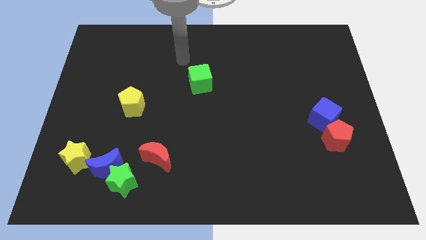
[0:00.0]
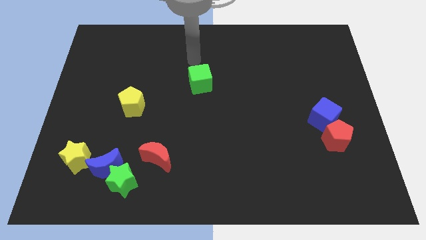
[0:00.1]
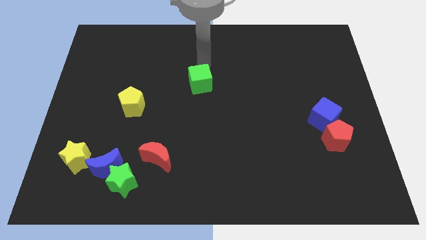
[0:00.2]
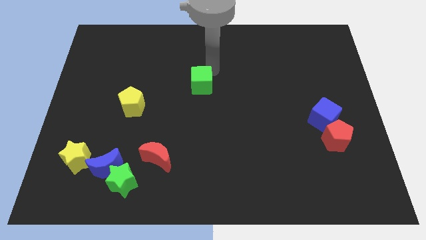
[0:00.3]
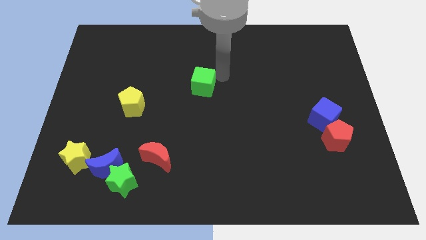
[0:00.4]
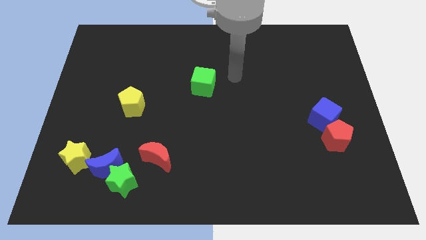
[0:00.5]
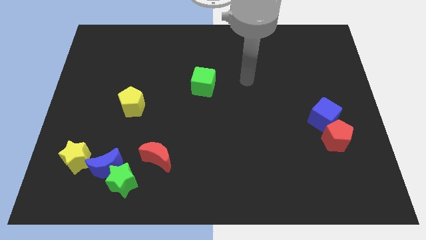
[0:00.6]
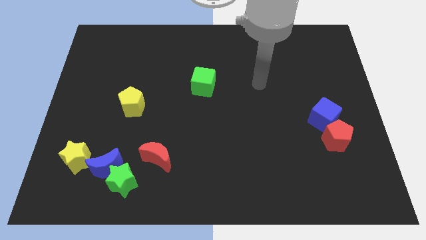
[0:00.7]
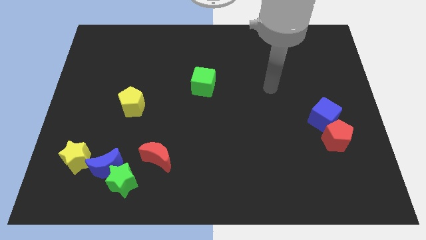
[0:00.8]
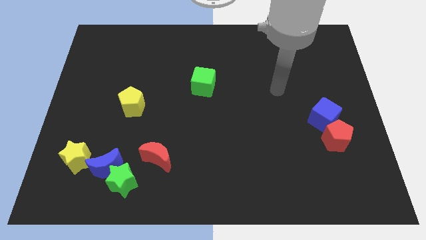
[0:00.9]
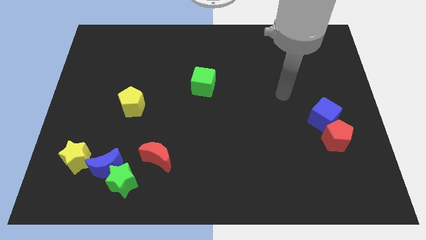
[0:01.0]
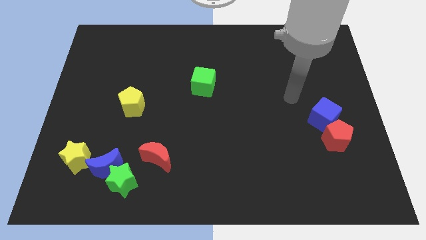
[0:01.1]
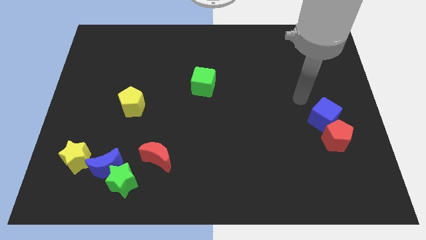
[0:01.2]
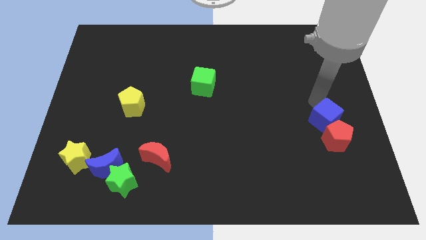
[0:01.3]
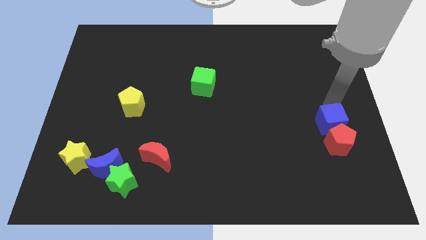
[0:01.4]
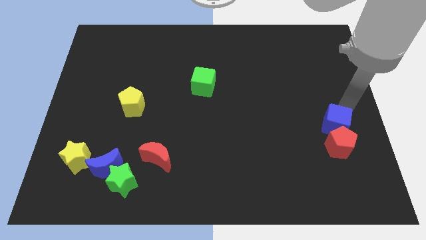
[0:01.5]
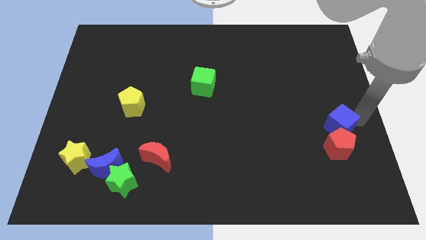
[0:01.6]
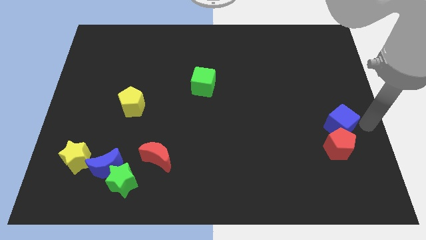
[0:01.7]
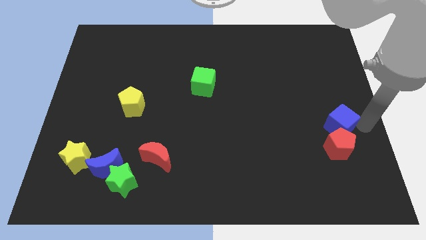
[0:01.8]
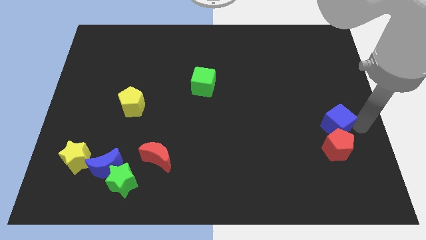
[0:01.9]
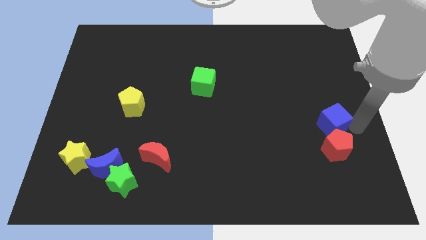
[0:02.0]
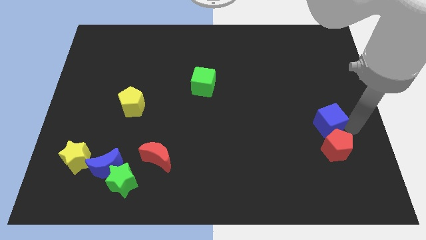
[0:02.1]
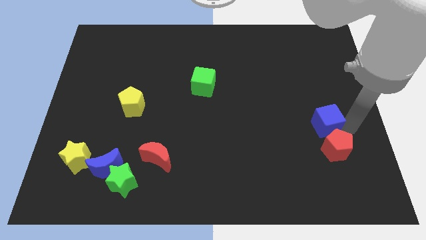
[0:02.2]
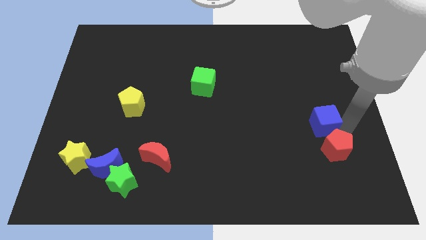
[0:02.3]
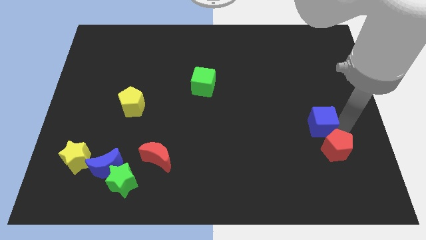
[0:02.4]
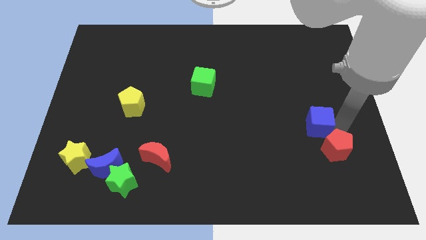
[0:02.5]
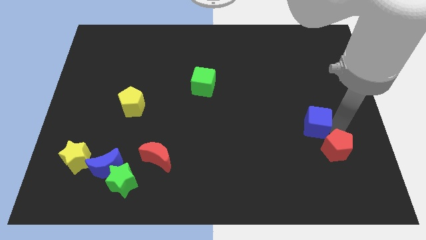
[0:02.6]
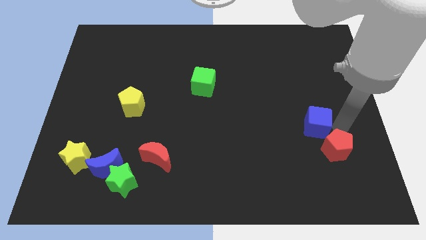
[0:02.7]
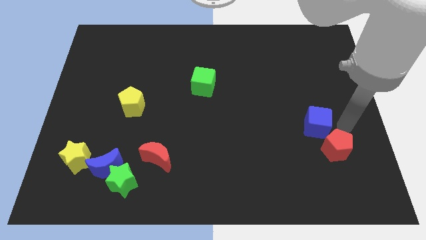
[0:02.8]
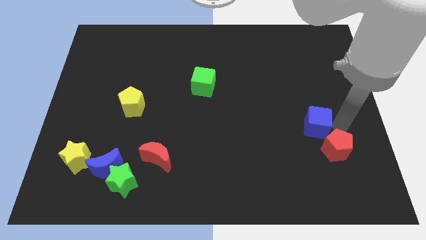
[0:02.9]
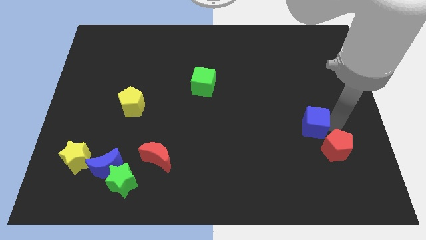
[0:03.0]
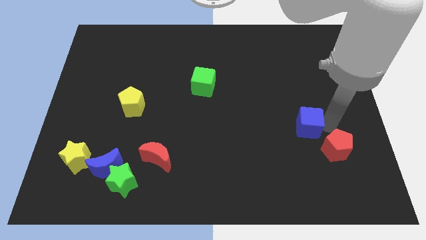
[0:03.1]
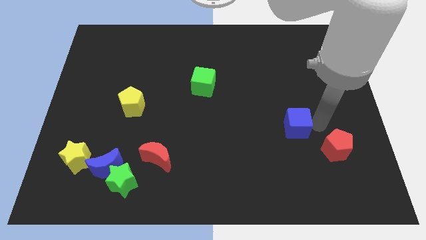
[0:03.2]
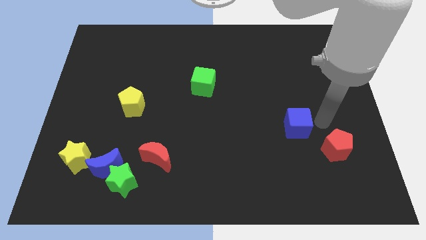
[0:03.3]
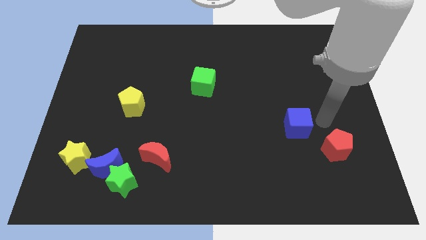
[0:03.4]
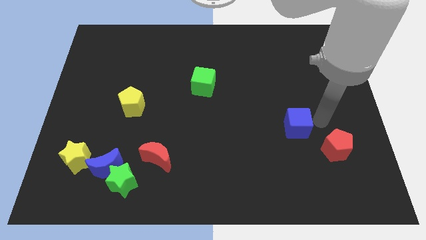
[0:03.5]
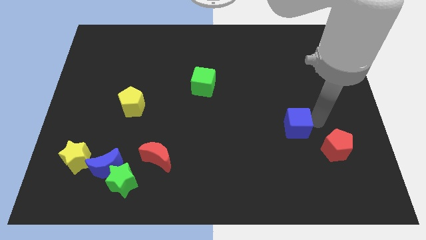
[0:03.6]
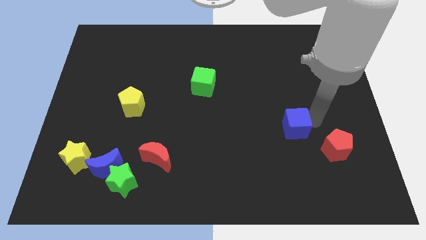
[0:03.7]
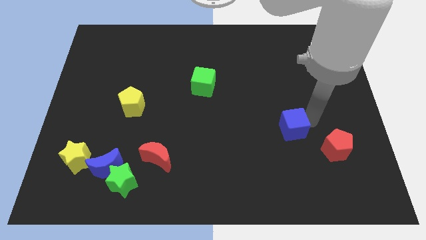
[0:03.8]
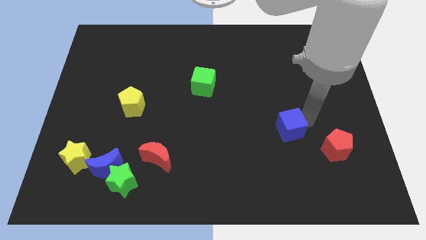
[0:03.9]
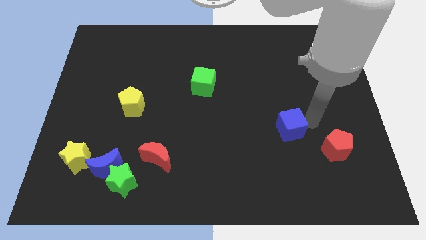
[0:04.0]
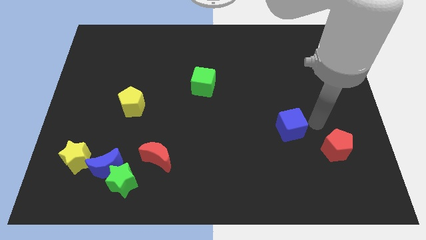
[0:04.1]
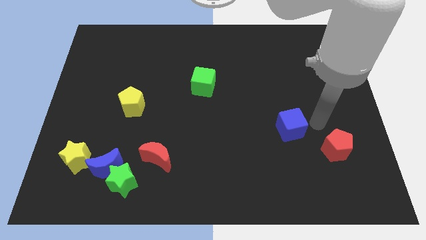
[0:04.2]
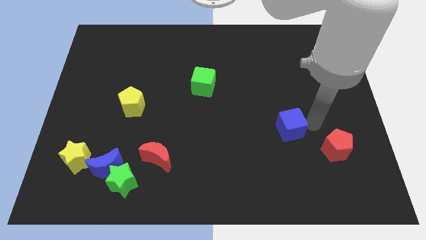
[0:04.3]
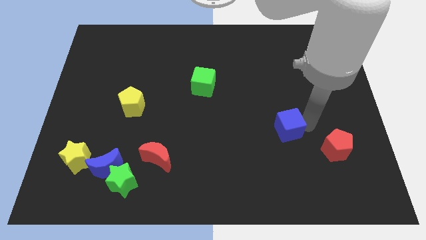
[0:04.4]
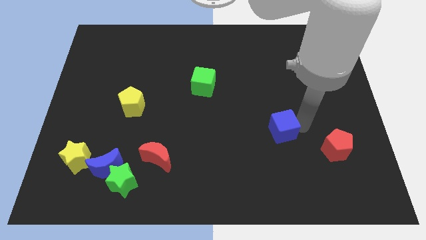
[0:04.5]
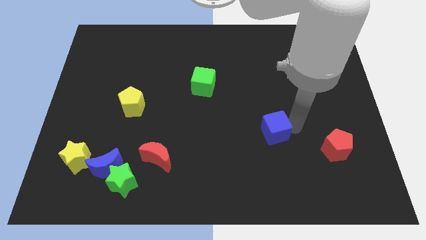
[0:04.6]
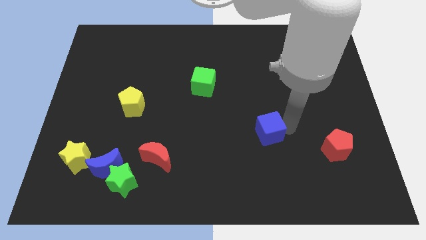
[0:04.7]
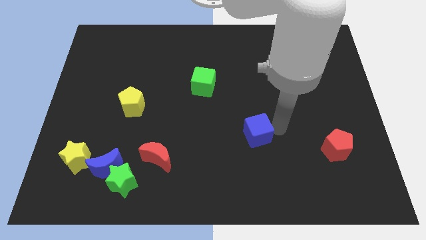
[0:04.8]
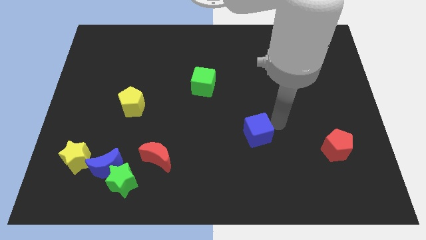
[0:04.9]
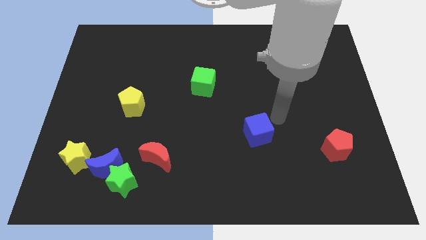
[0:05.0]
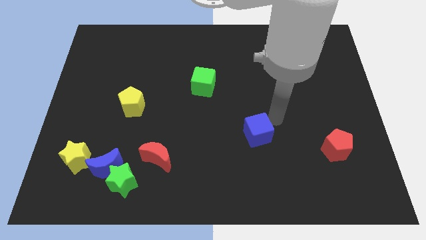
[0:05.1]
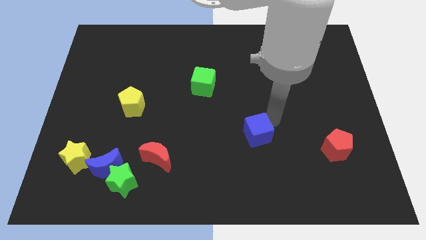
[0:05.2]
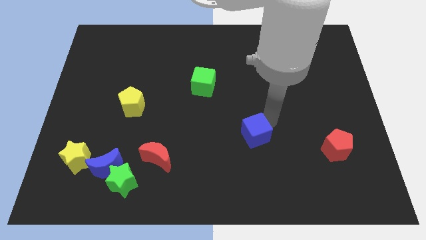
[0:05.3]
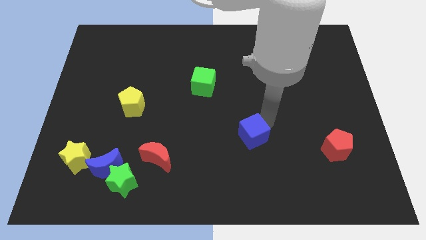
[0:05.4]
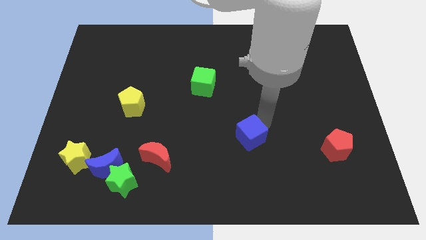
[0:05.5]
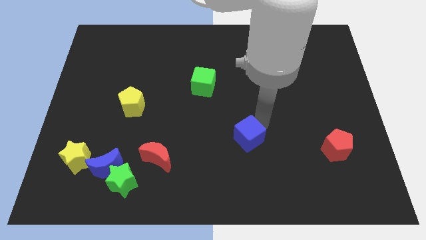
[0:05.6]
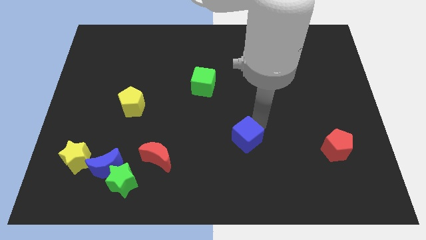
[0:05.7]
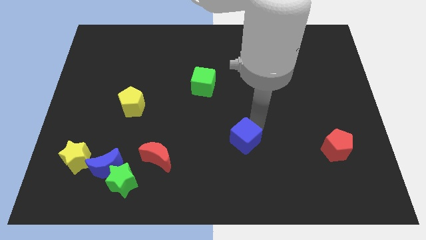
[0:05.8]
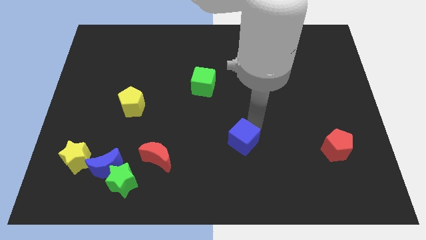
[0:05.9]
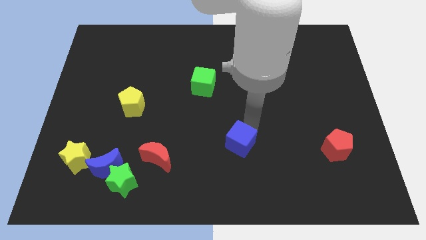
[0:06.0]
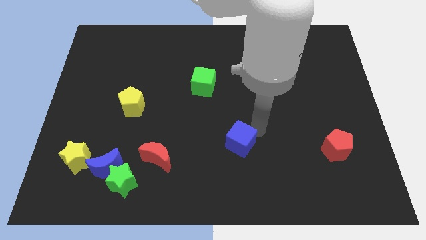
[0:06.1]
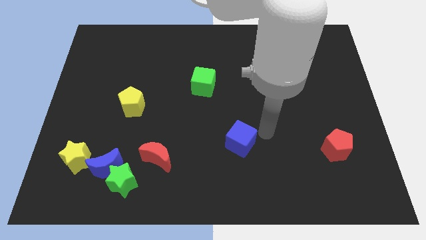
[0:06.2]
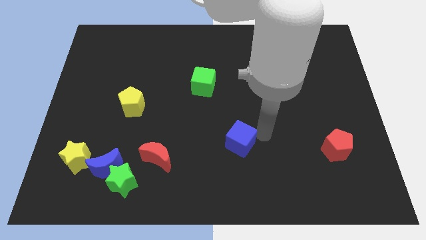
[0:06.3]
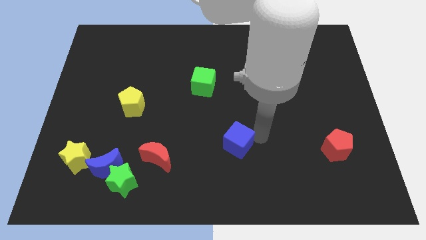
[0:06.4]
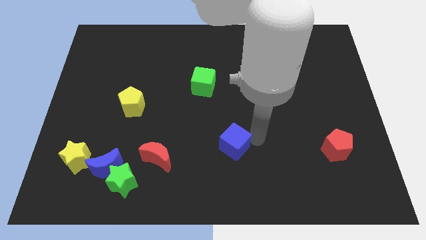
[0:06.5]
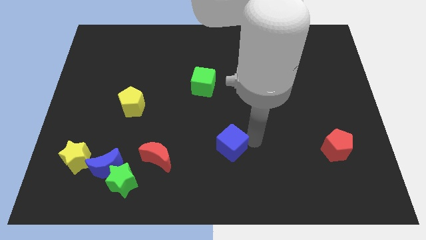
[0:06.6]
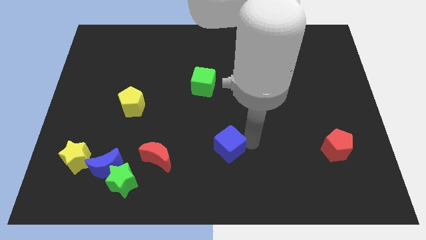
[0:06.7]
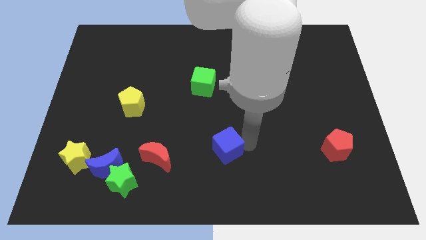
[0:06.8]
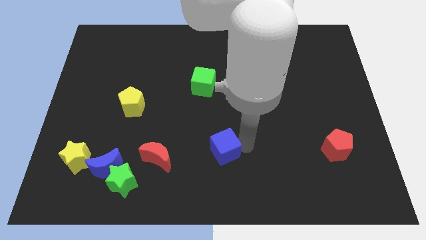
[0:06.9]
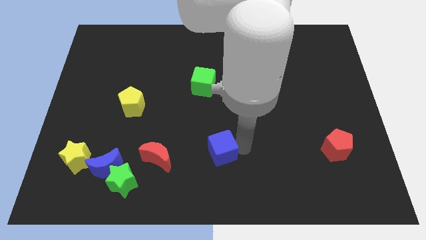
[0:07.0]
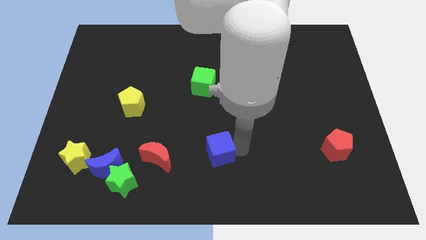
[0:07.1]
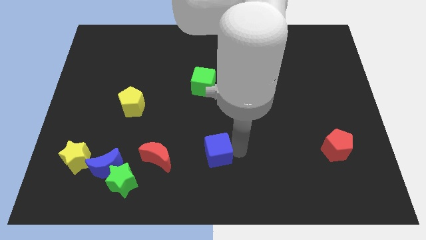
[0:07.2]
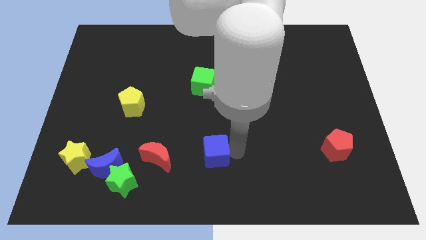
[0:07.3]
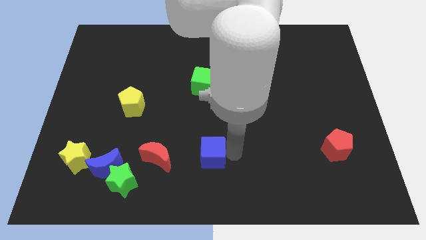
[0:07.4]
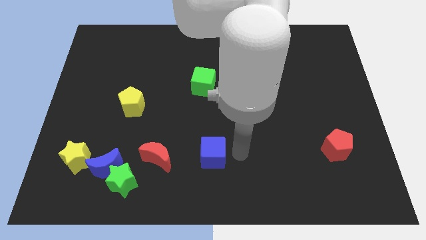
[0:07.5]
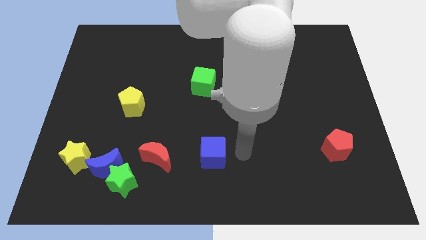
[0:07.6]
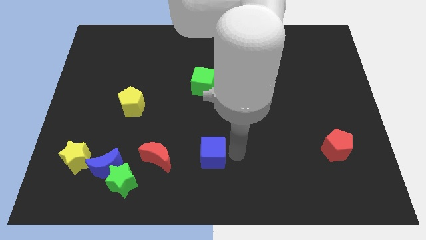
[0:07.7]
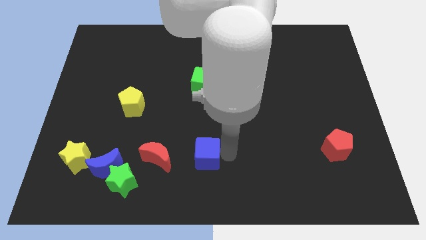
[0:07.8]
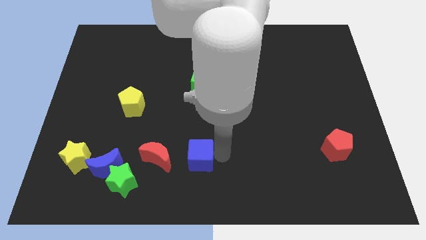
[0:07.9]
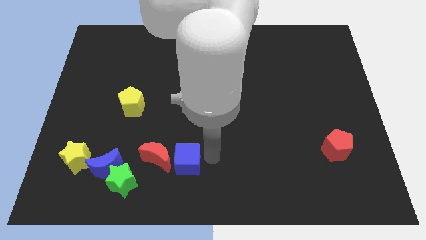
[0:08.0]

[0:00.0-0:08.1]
move the blue cube close to the red moon

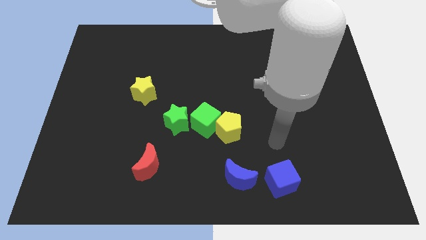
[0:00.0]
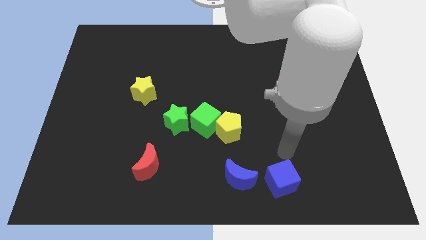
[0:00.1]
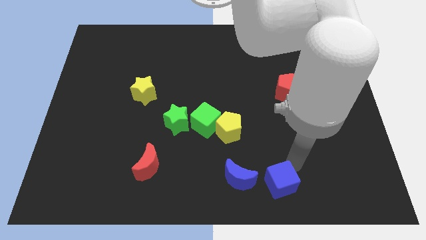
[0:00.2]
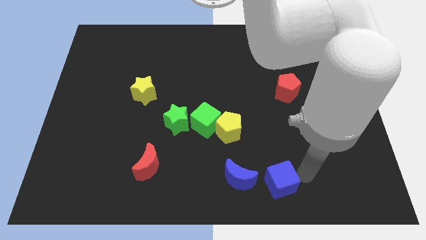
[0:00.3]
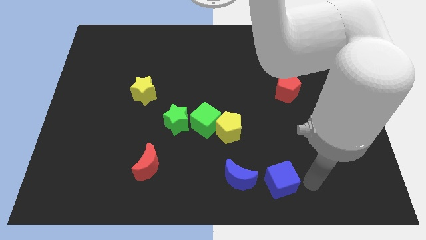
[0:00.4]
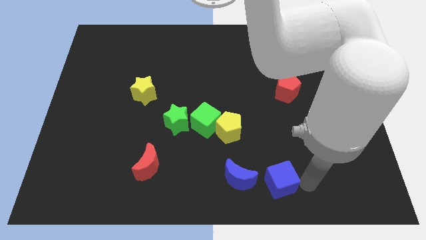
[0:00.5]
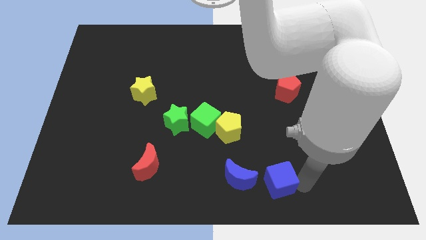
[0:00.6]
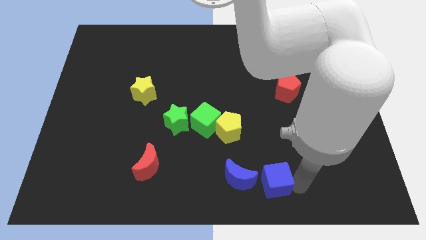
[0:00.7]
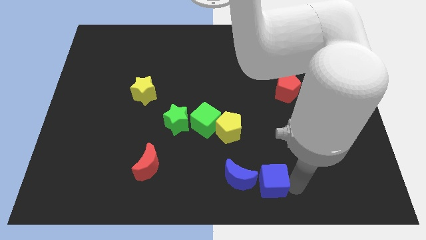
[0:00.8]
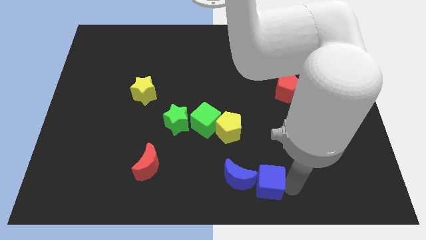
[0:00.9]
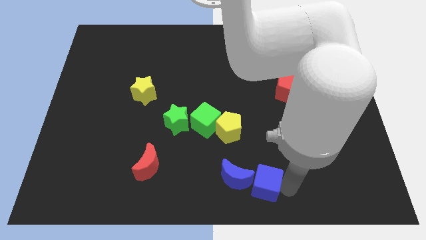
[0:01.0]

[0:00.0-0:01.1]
put the blue cube towards the blue moon
